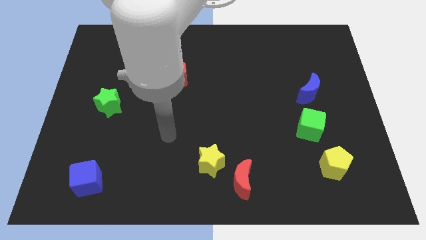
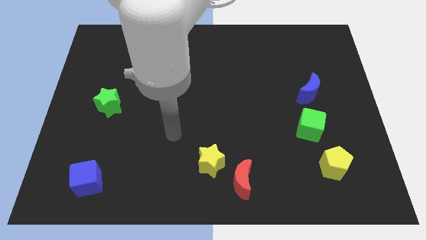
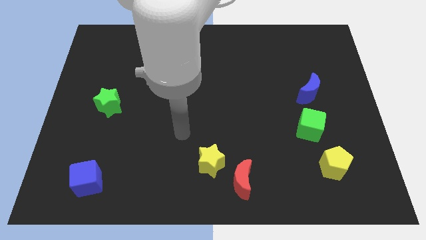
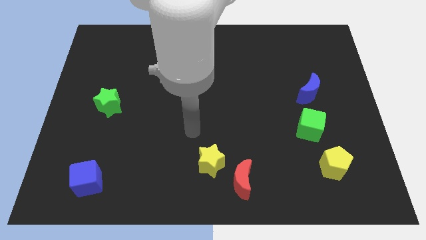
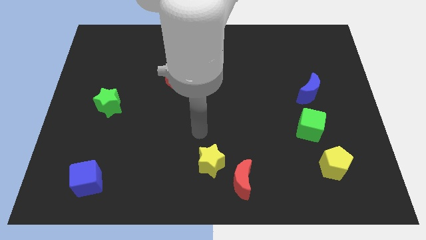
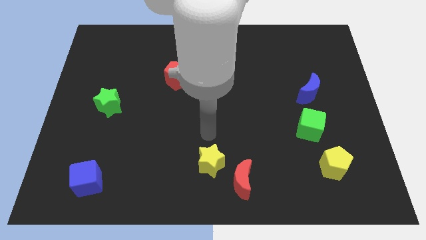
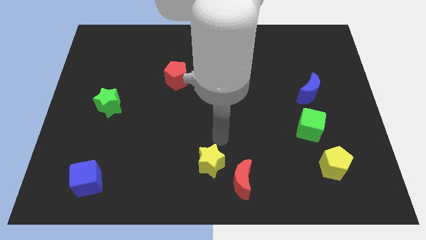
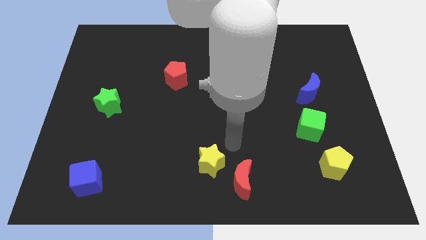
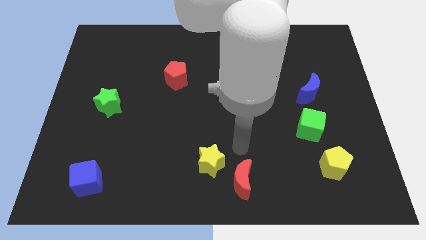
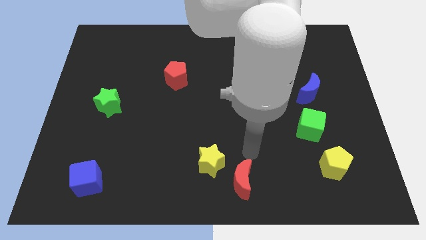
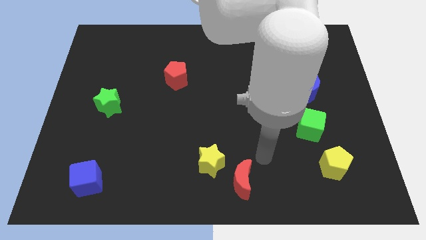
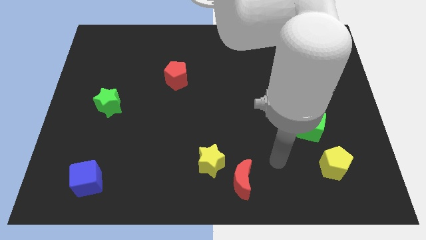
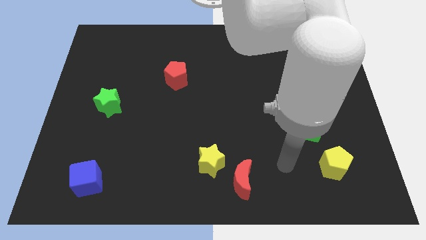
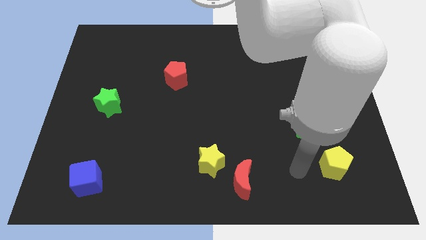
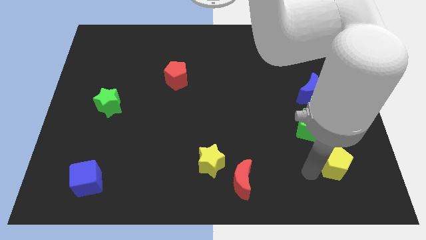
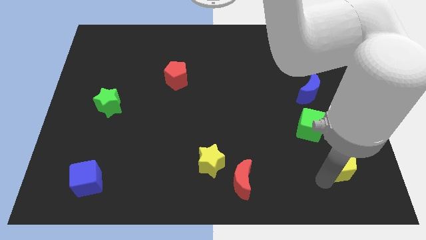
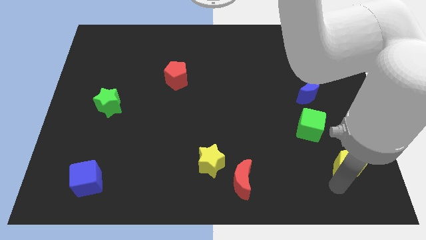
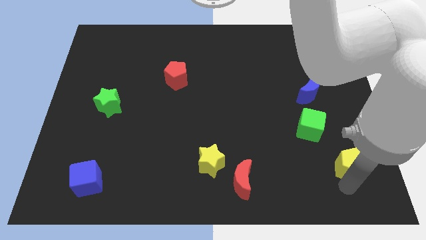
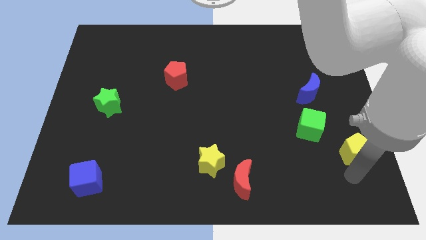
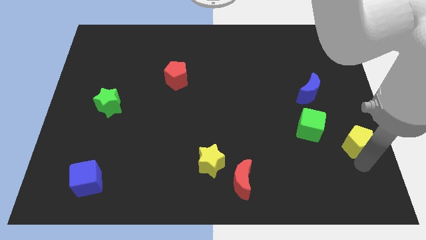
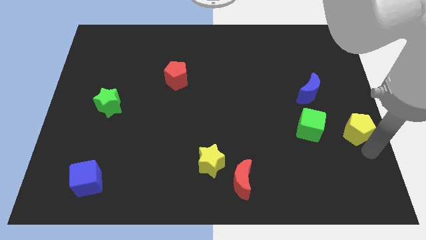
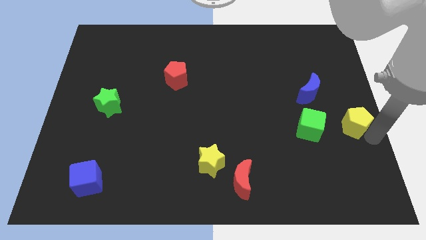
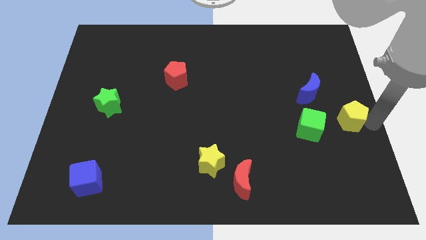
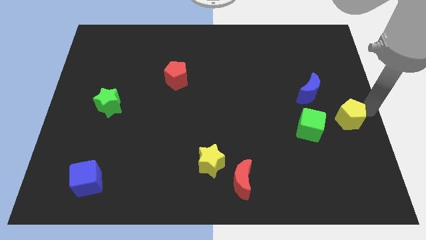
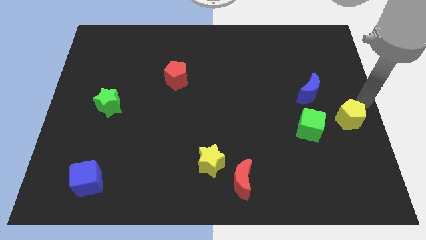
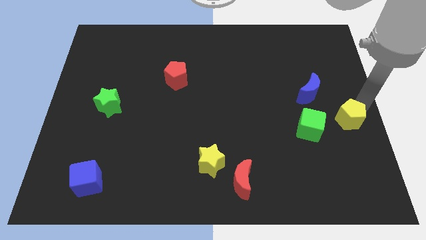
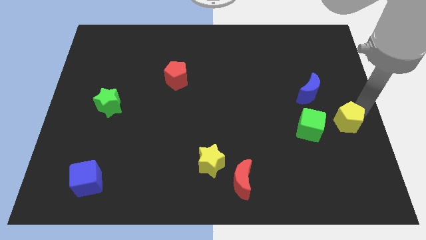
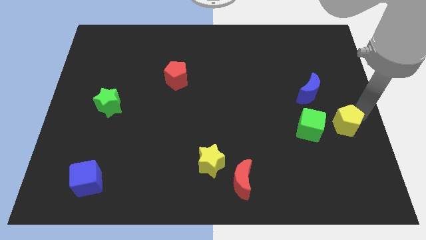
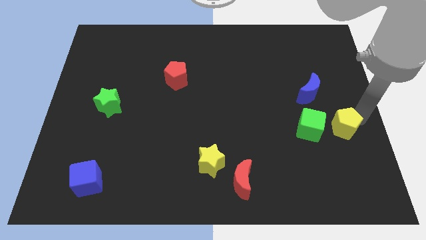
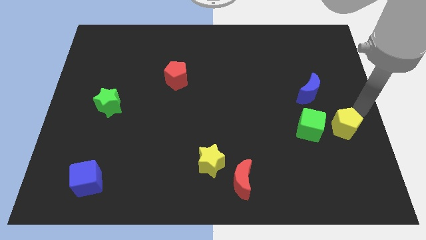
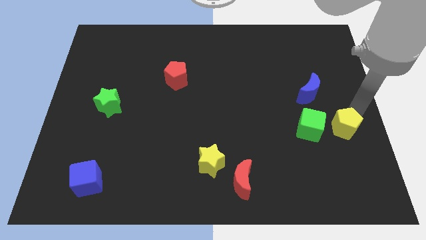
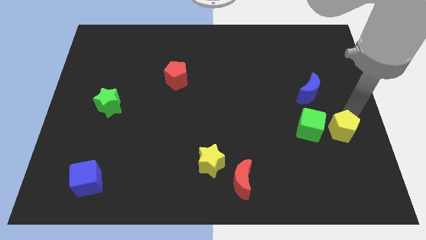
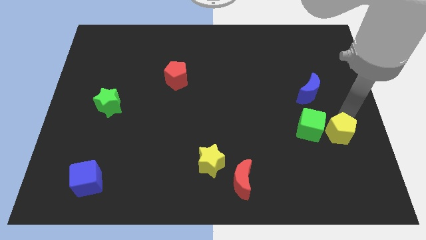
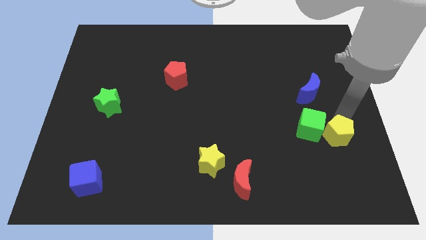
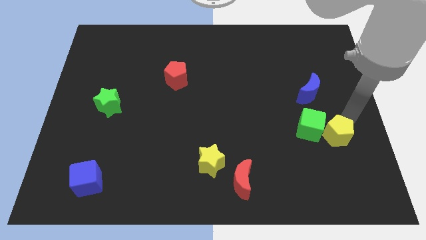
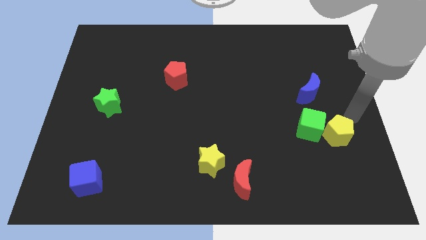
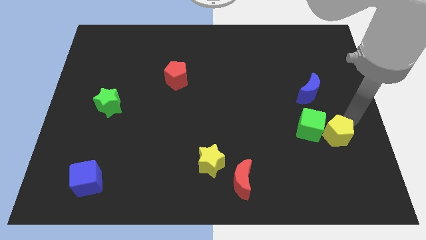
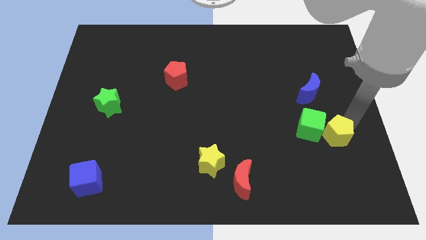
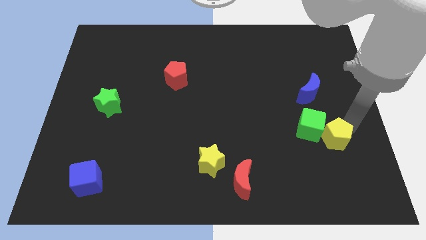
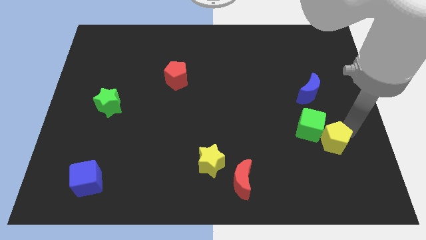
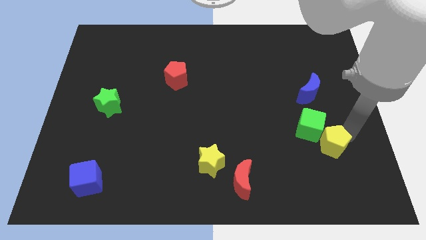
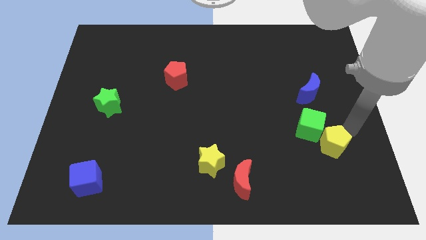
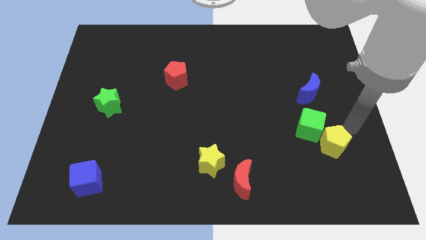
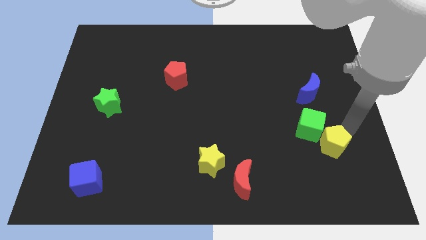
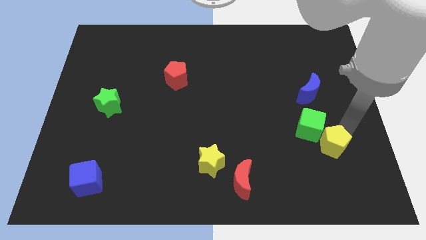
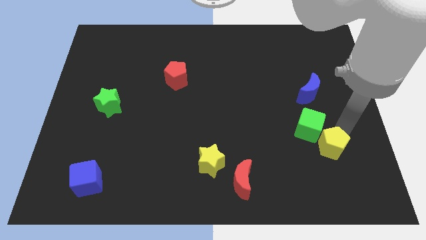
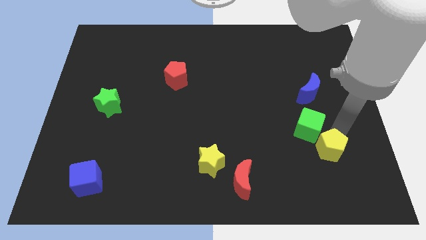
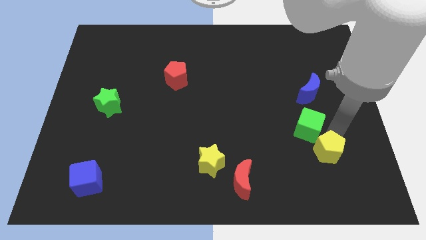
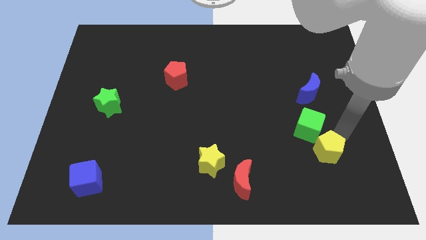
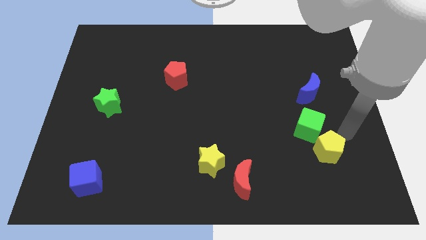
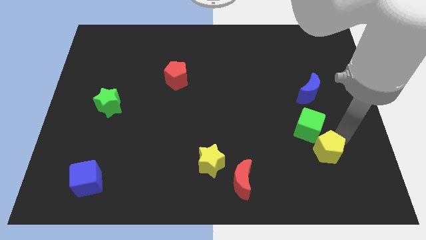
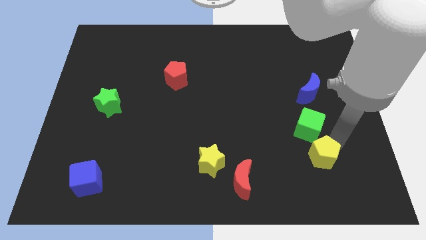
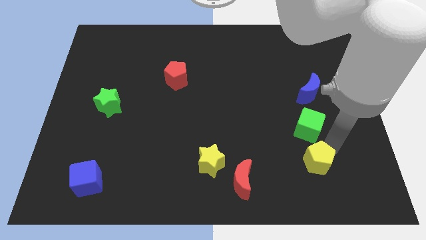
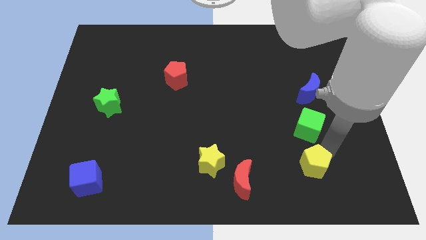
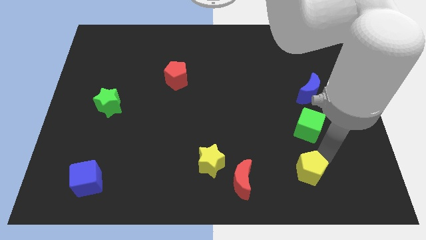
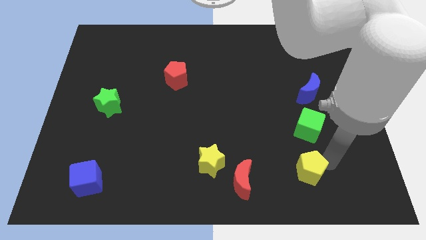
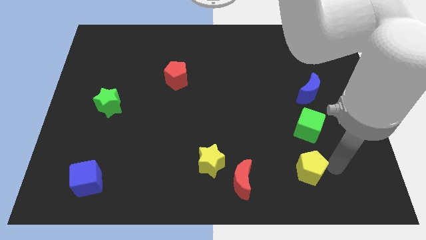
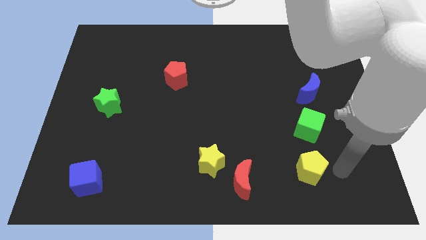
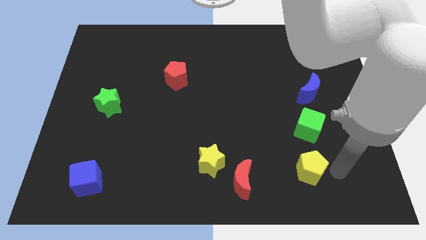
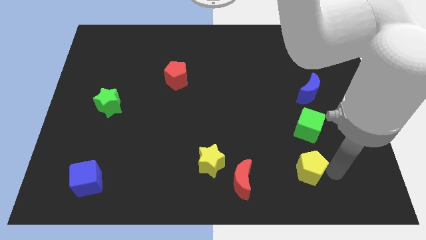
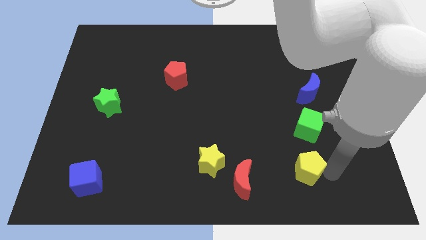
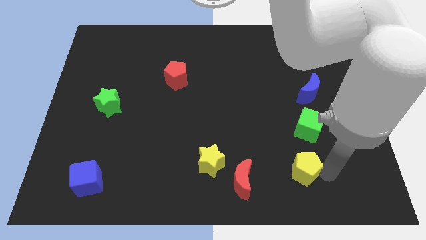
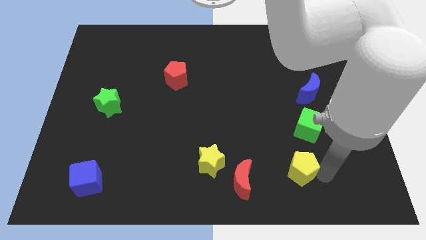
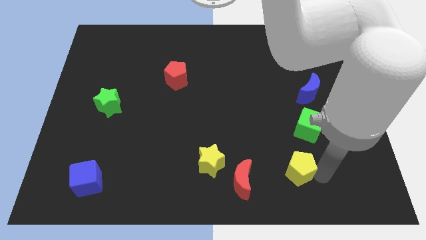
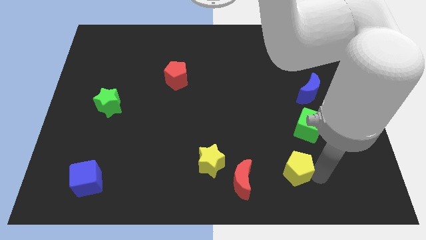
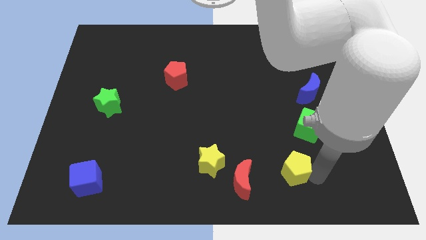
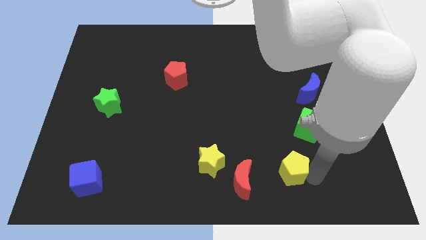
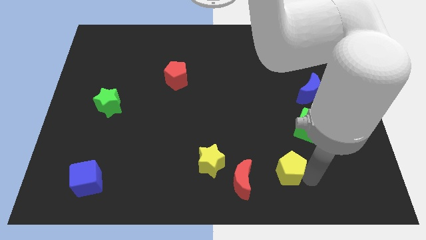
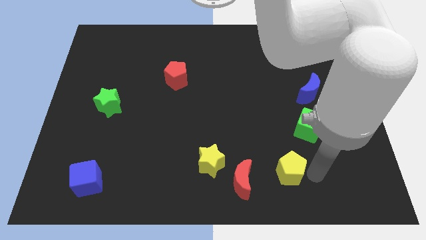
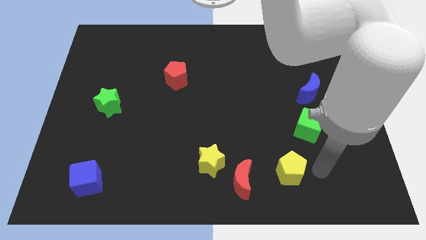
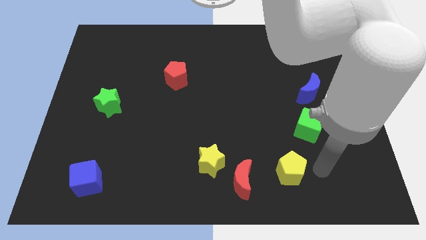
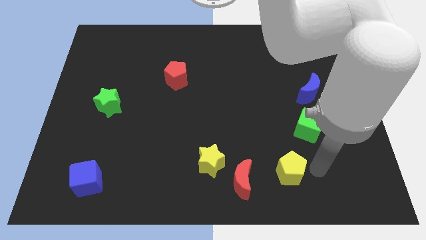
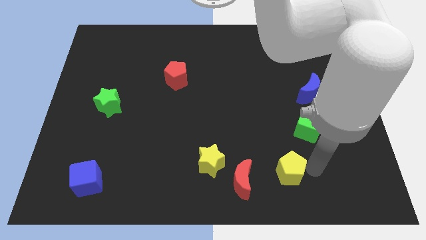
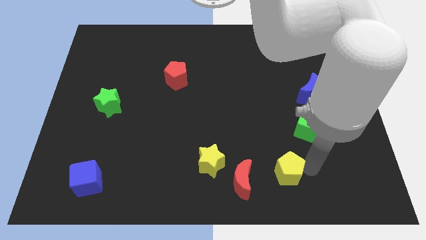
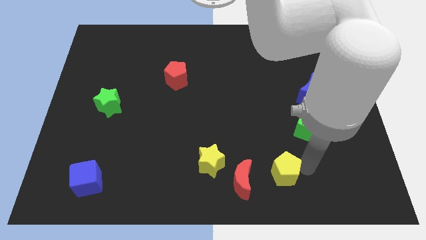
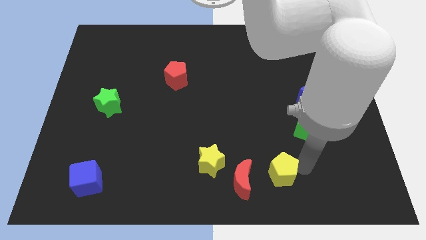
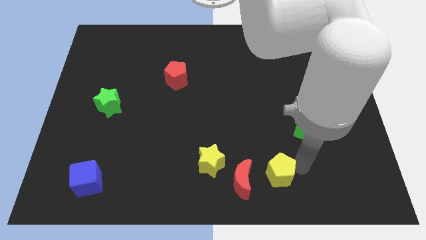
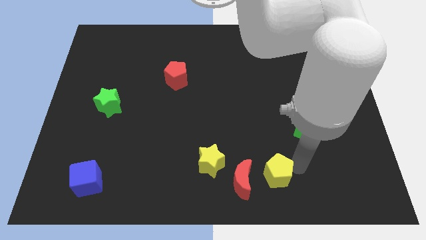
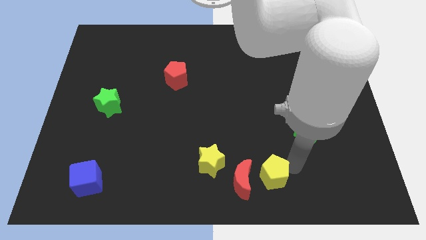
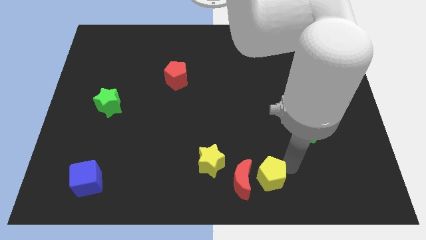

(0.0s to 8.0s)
push the yellow pentagon close to the red moon
